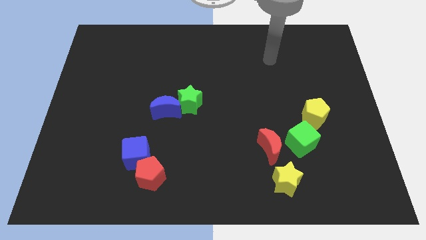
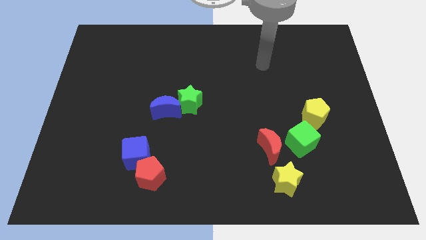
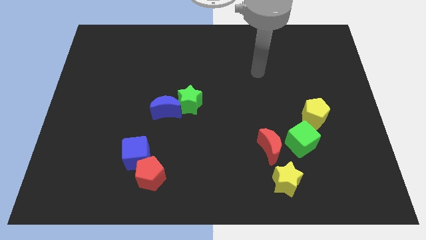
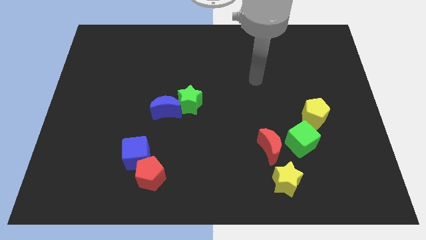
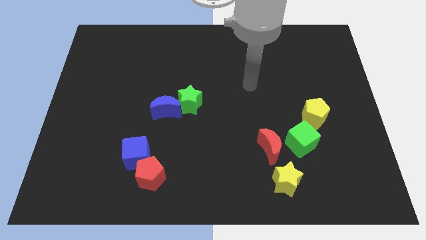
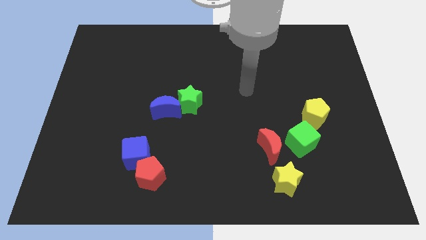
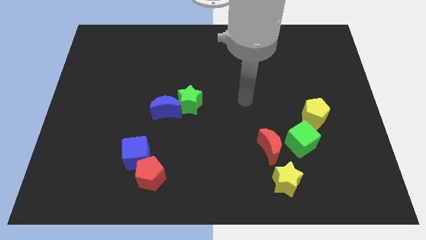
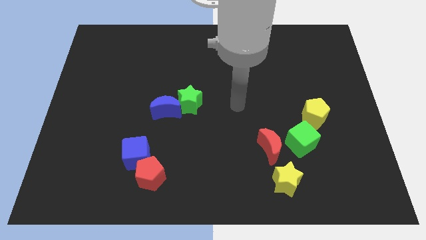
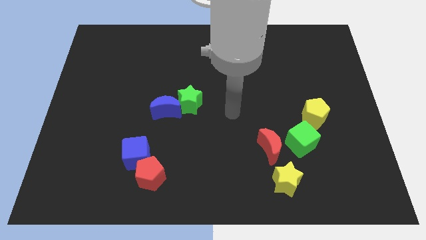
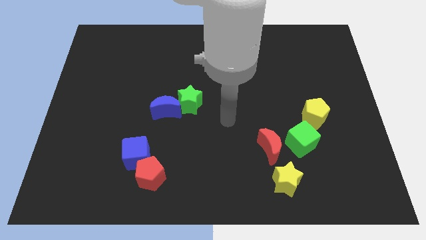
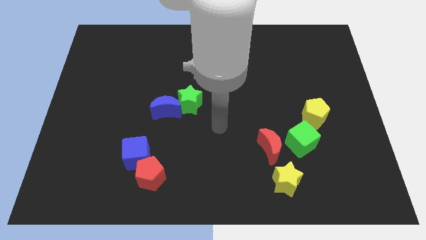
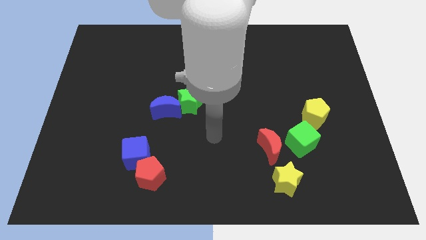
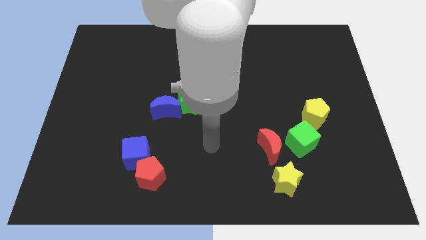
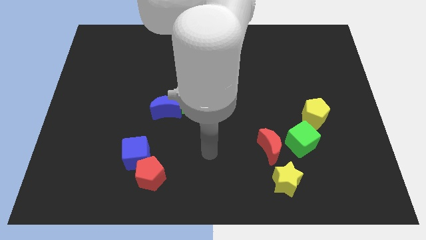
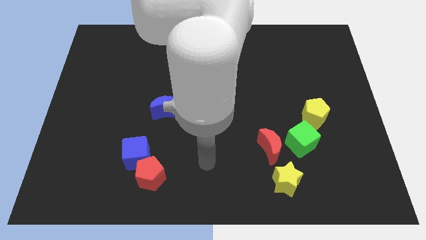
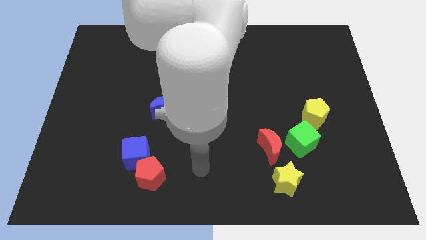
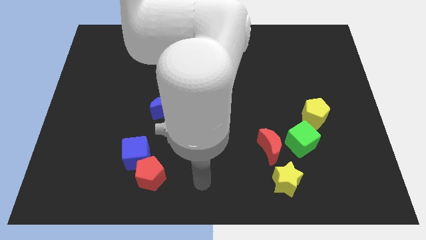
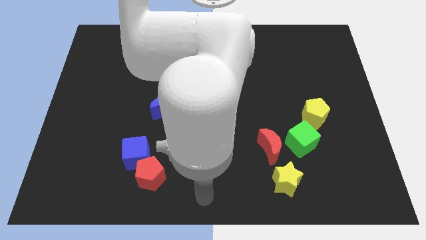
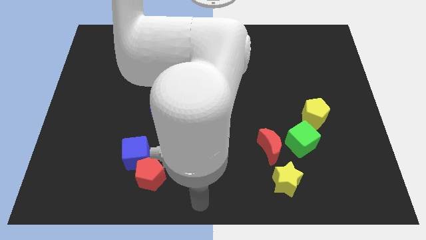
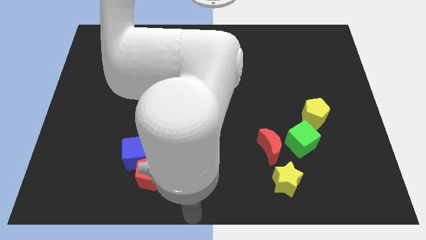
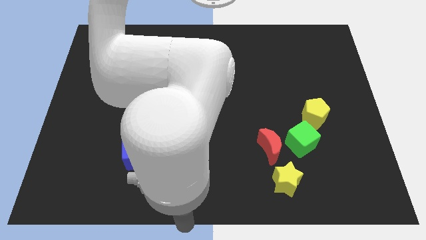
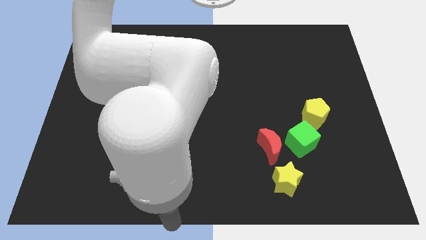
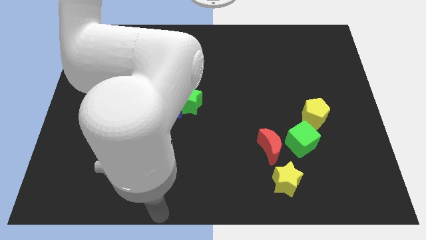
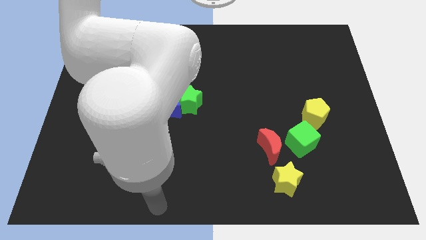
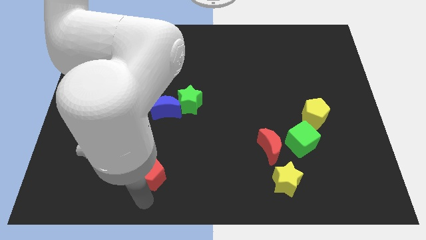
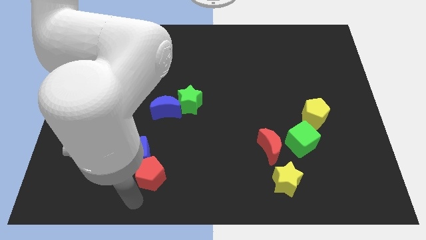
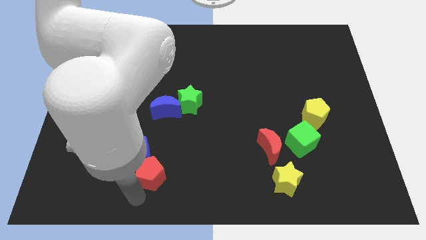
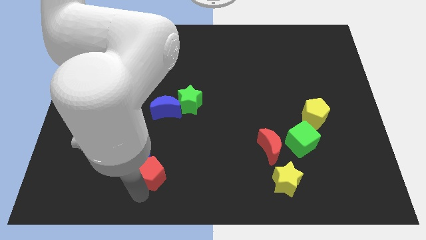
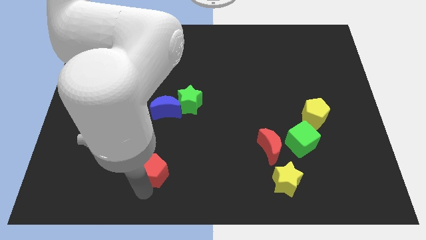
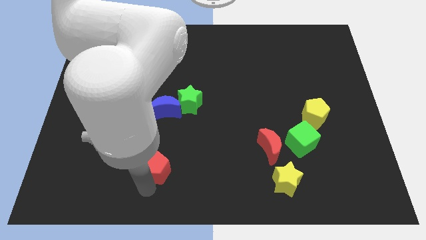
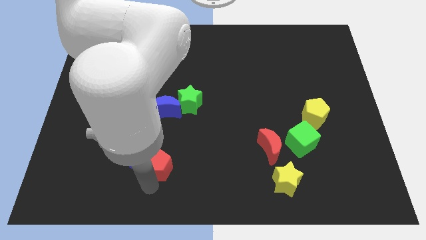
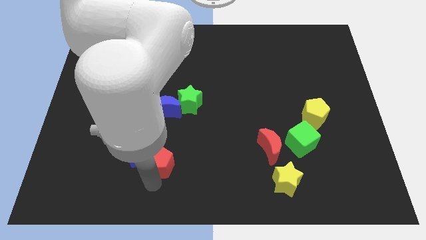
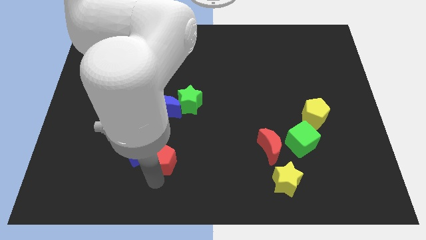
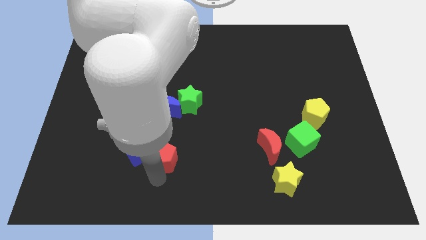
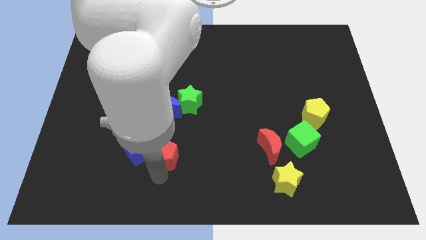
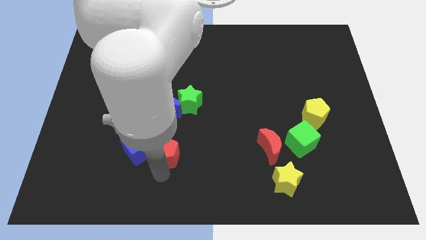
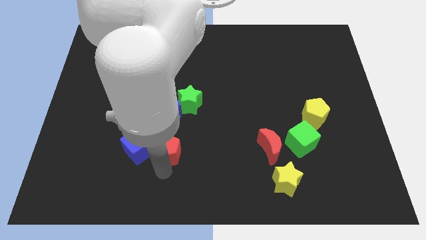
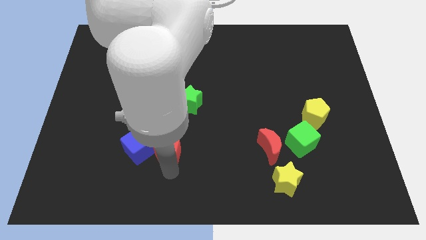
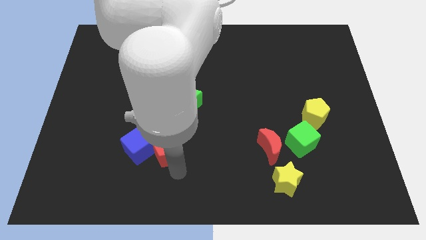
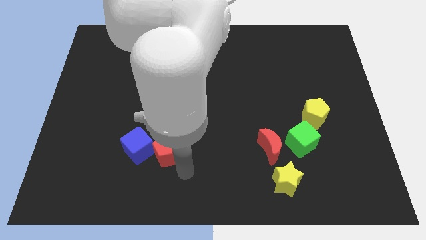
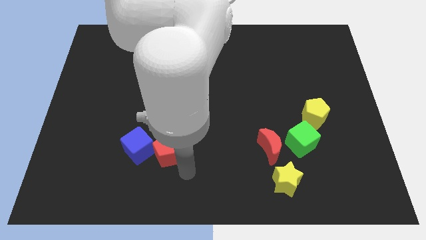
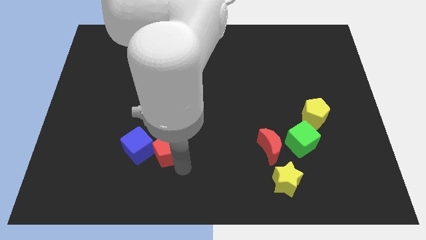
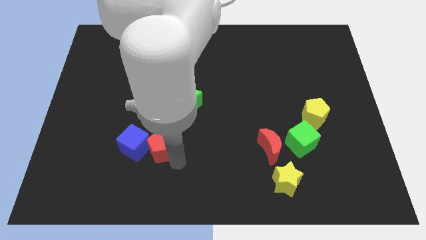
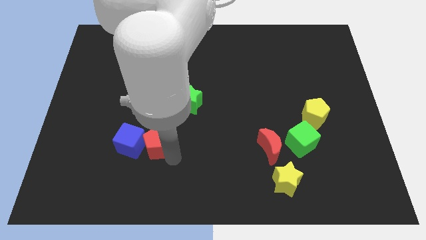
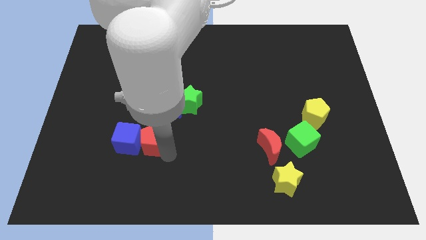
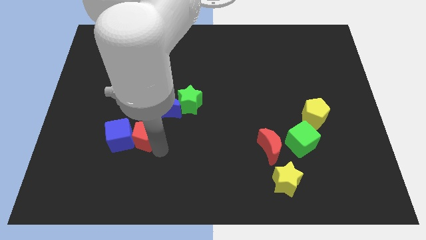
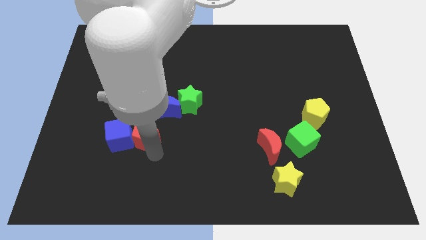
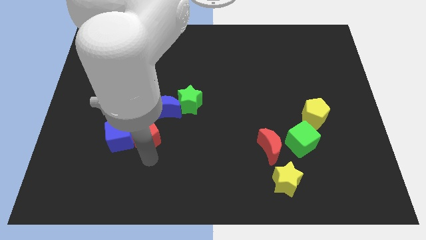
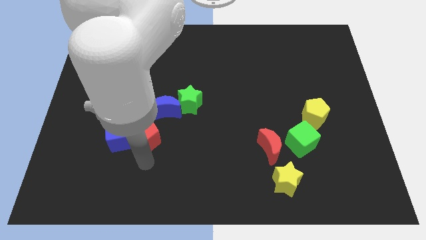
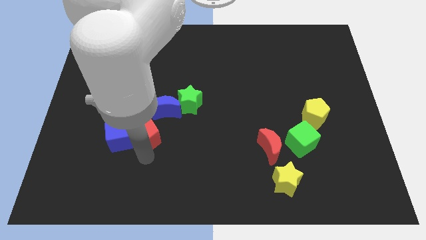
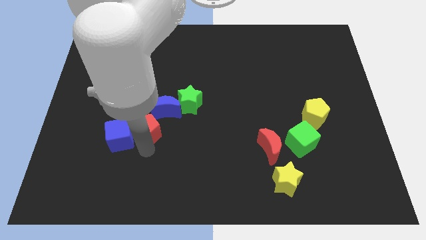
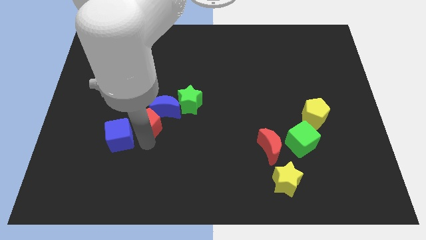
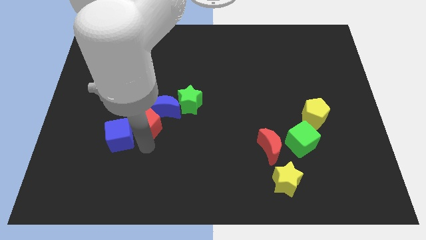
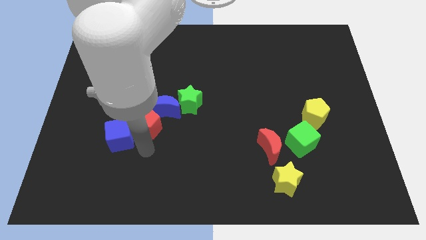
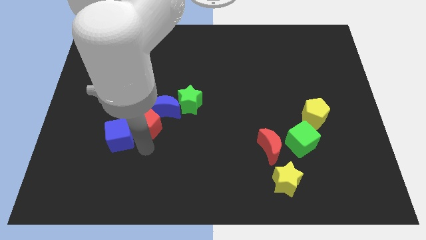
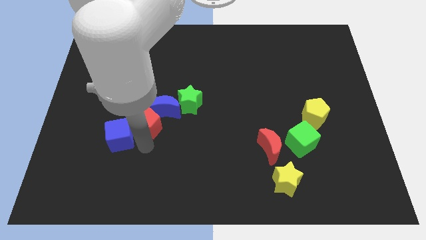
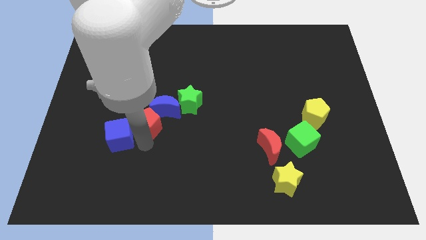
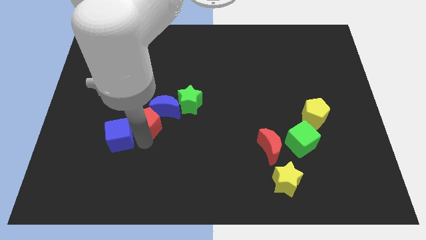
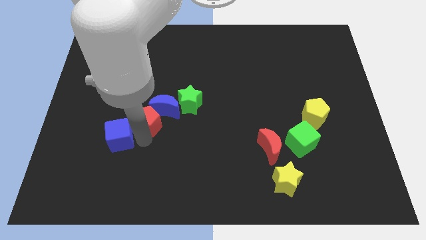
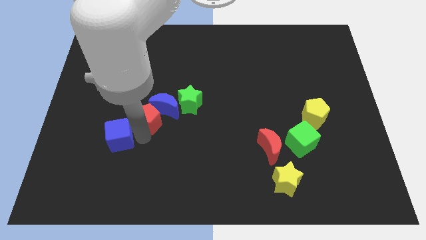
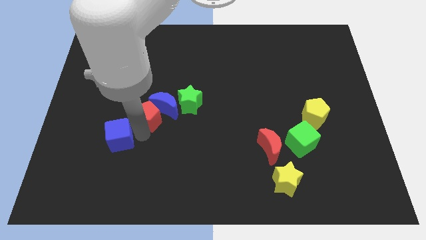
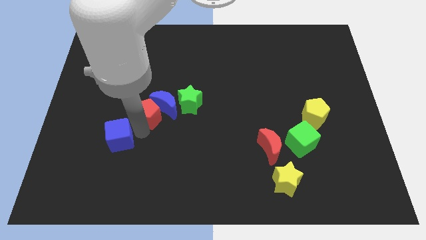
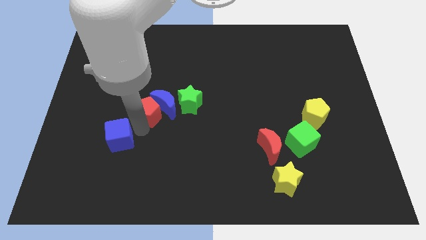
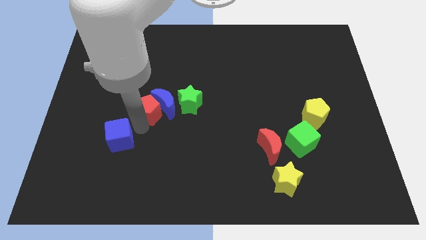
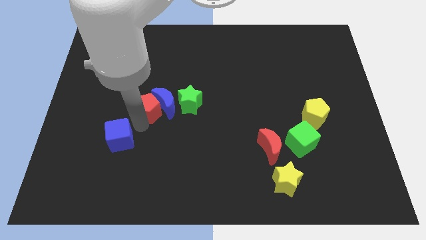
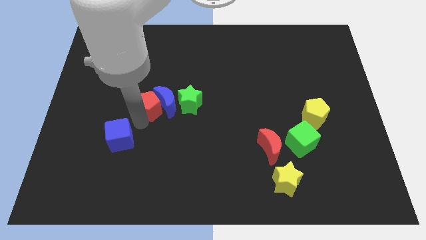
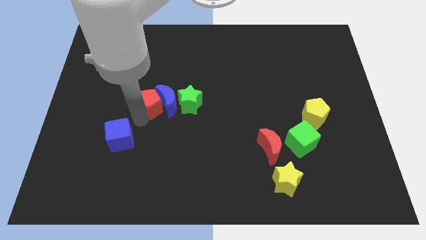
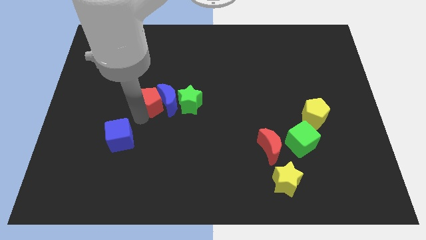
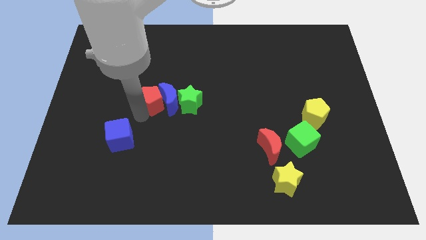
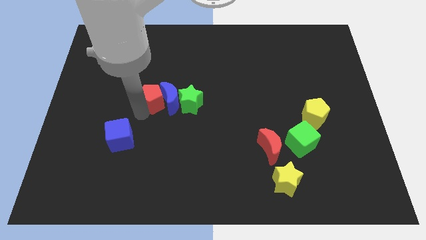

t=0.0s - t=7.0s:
move the red pentagon up

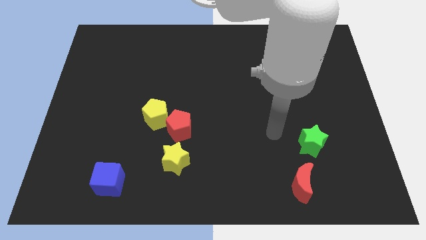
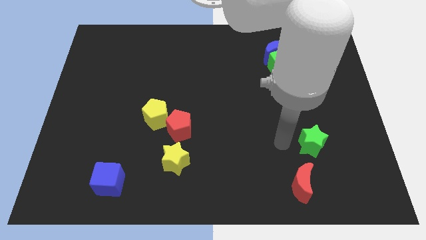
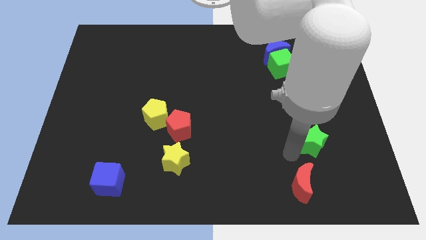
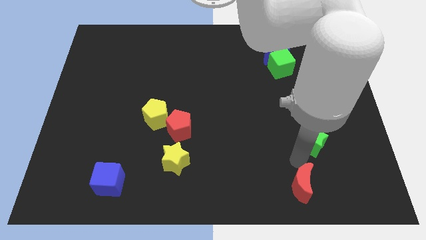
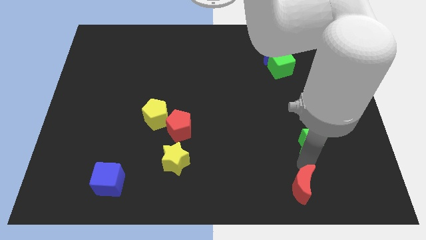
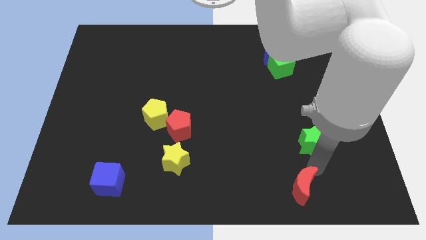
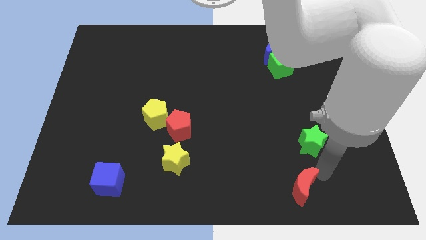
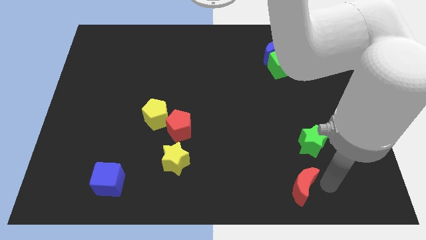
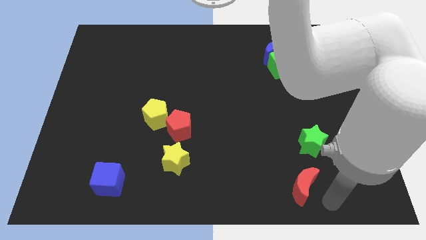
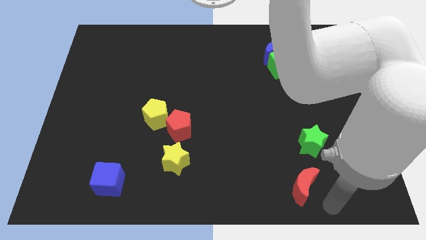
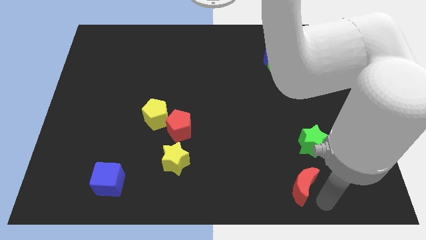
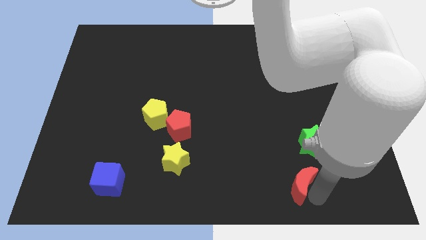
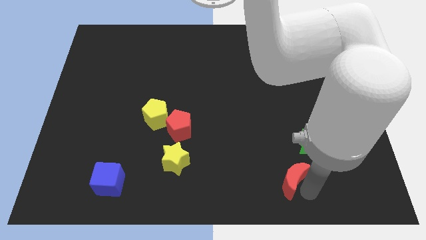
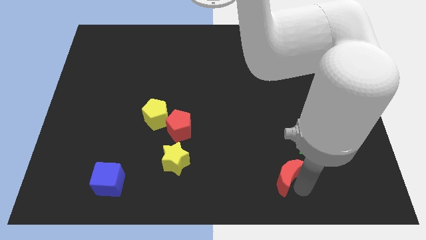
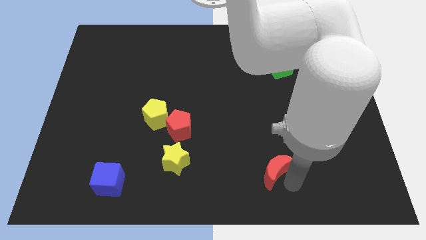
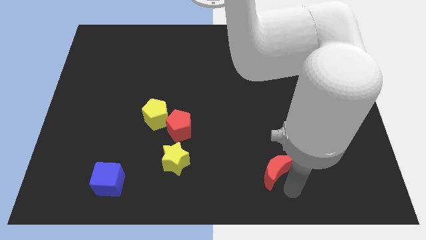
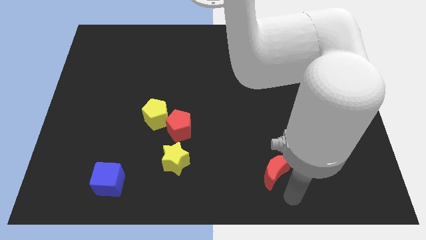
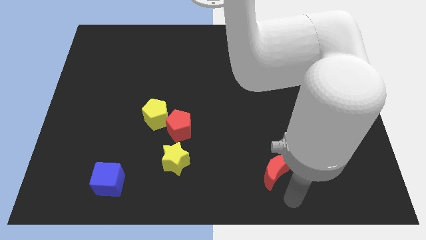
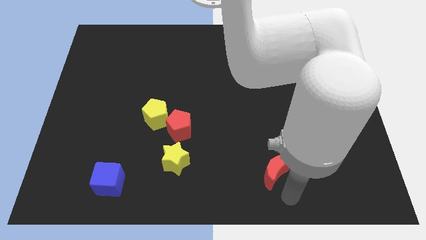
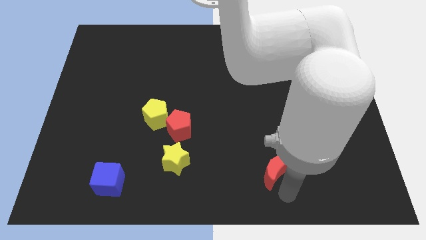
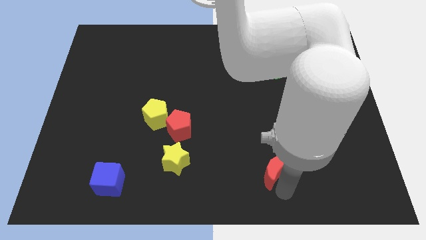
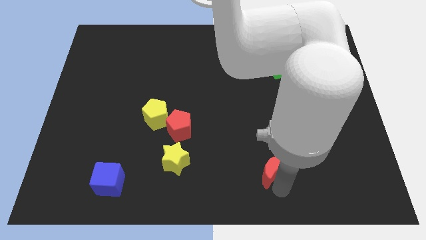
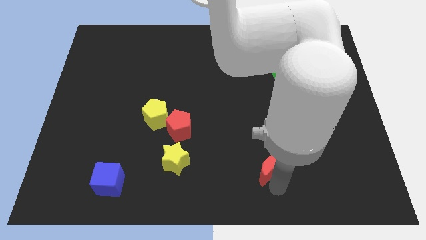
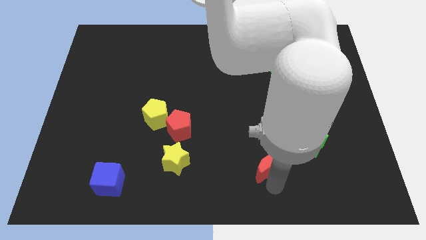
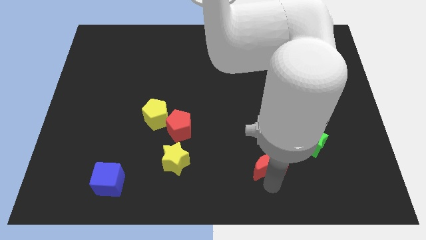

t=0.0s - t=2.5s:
slightly slide the red moon up and left diagonally
